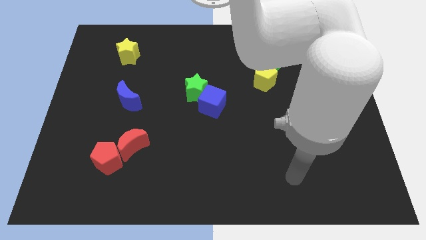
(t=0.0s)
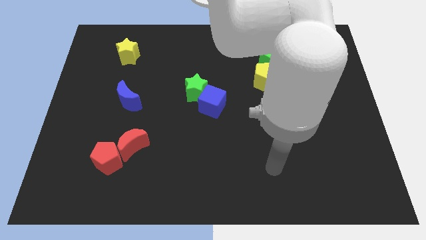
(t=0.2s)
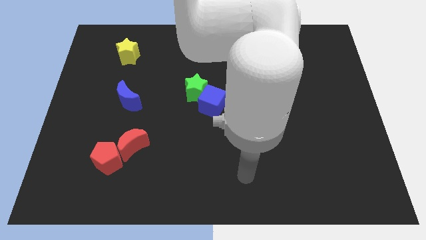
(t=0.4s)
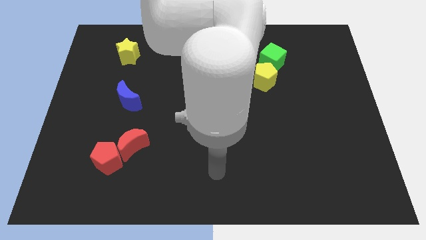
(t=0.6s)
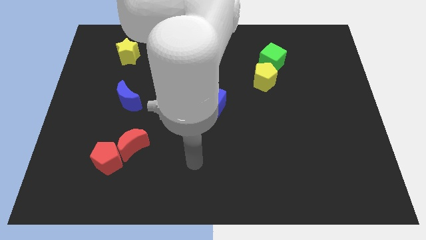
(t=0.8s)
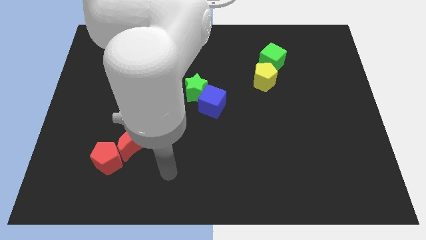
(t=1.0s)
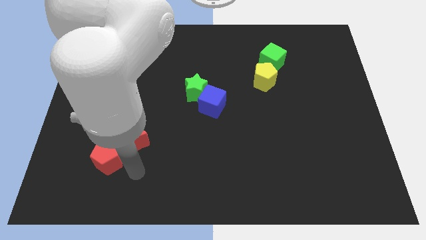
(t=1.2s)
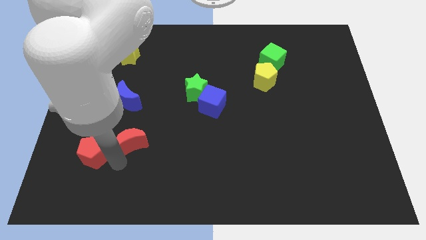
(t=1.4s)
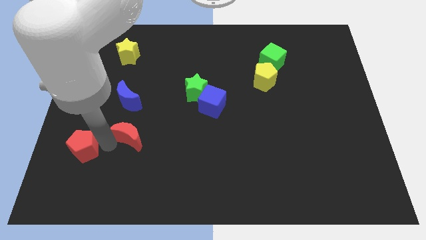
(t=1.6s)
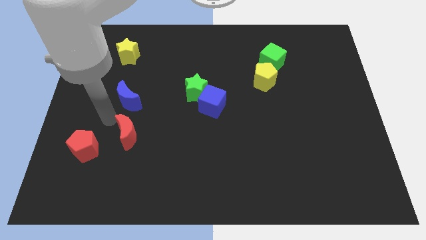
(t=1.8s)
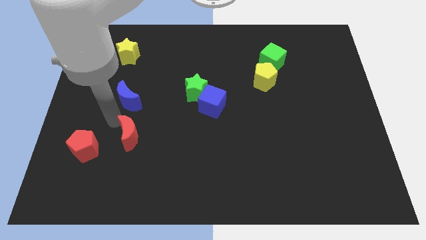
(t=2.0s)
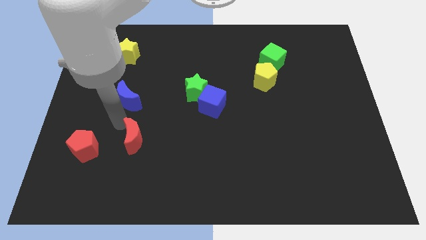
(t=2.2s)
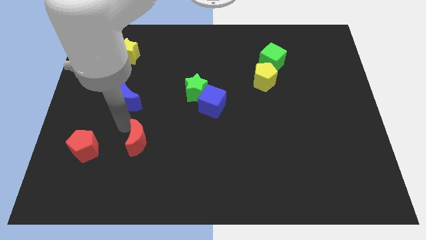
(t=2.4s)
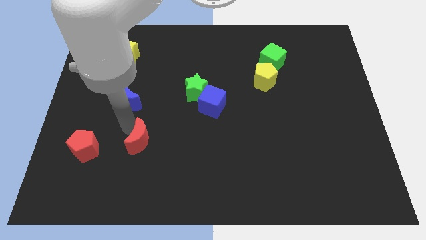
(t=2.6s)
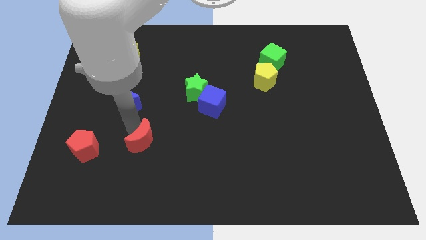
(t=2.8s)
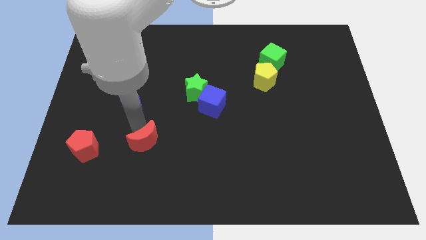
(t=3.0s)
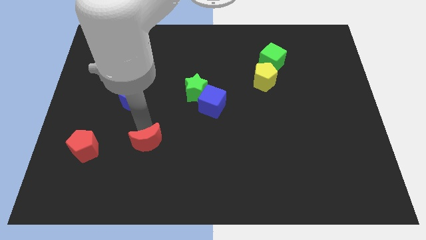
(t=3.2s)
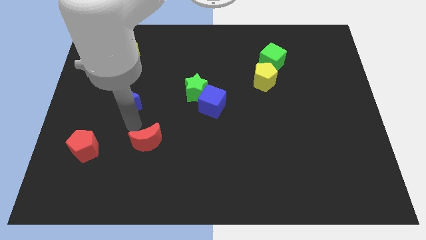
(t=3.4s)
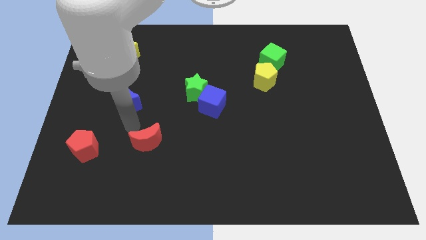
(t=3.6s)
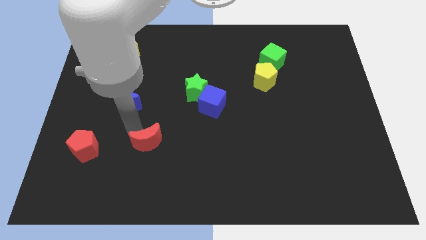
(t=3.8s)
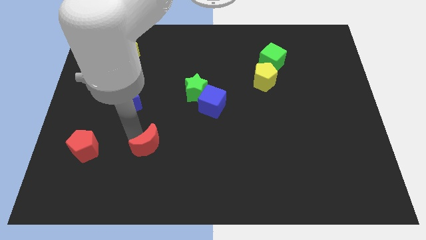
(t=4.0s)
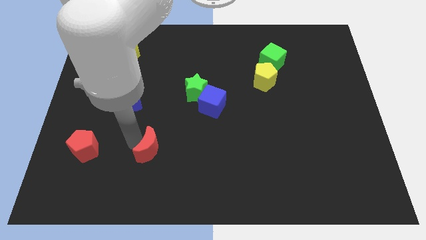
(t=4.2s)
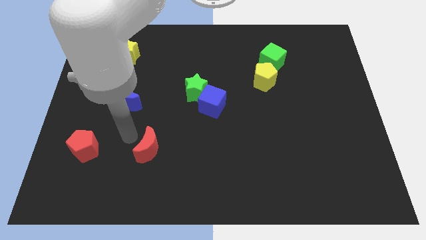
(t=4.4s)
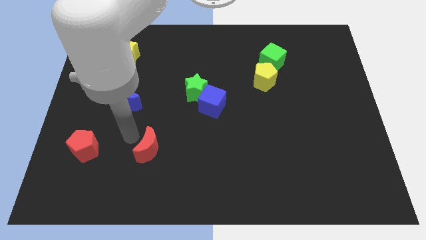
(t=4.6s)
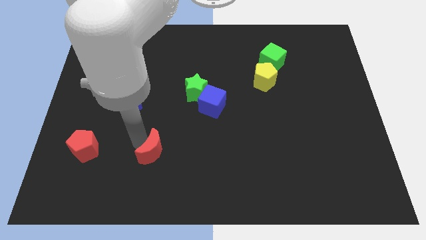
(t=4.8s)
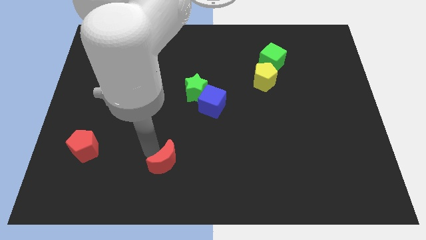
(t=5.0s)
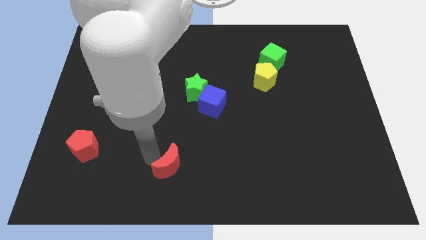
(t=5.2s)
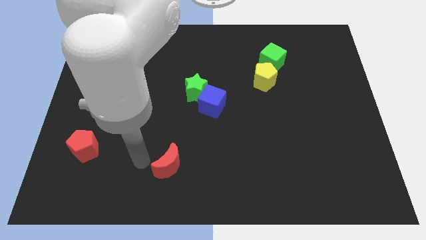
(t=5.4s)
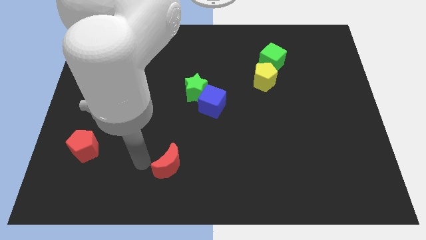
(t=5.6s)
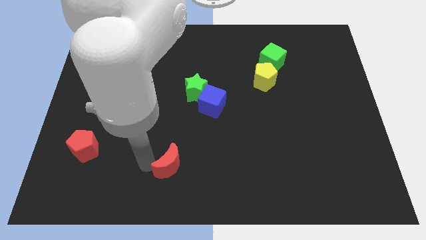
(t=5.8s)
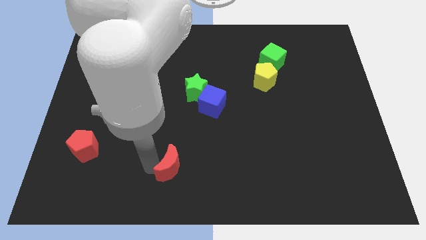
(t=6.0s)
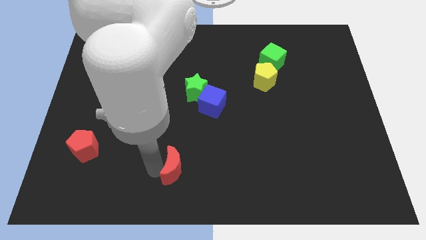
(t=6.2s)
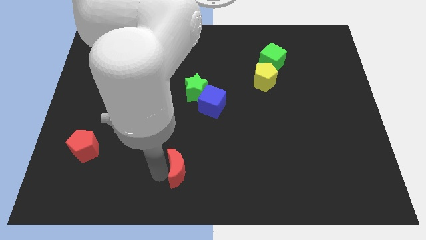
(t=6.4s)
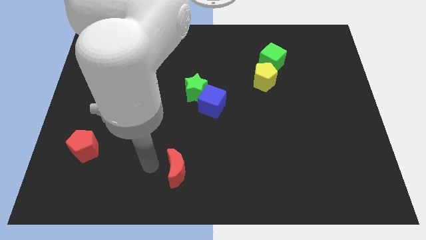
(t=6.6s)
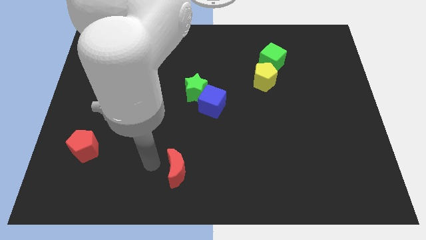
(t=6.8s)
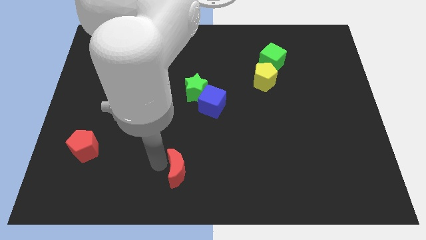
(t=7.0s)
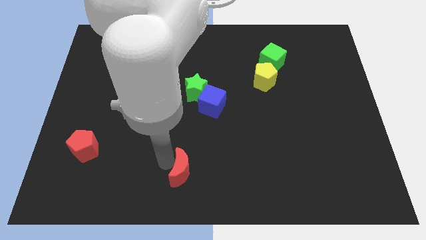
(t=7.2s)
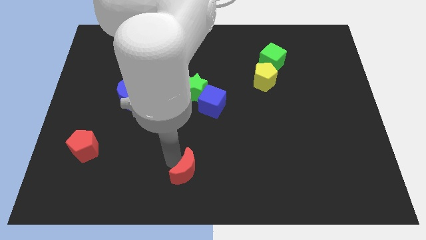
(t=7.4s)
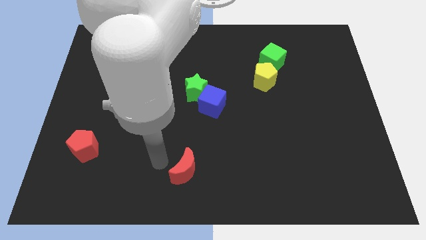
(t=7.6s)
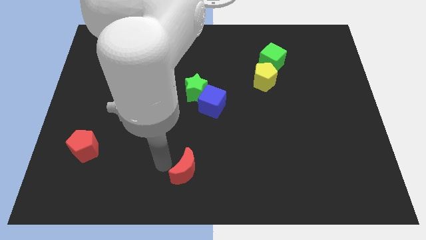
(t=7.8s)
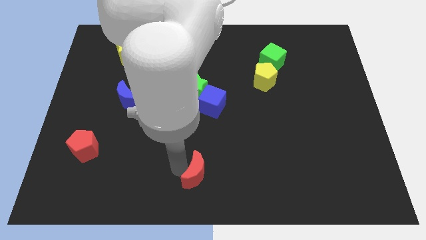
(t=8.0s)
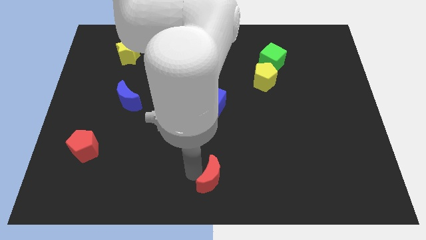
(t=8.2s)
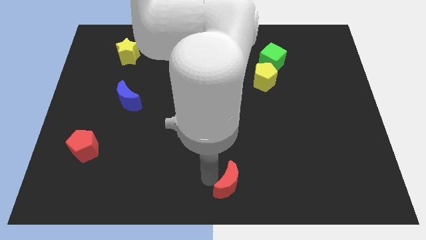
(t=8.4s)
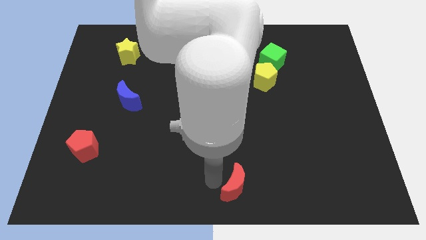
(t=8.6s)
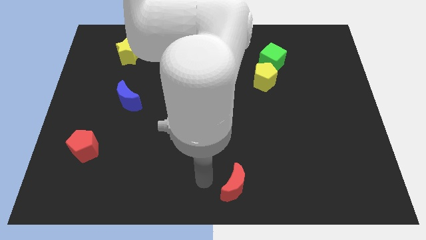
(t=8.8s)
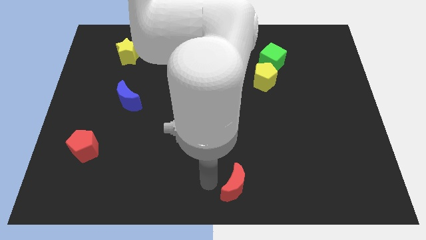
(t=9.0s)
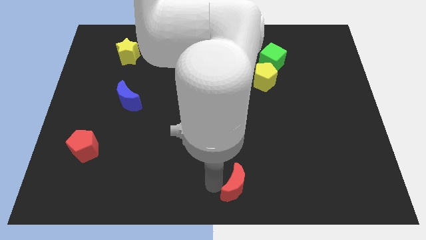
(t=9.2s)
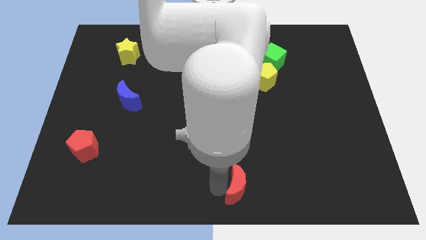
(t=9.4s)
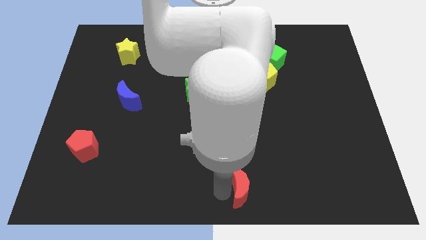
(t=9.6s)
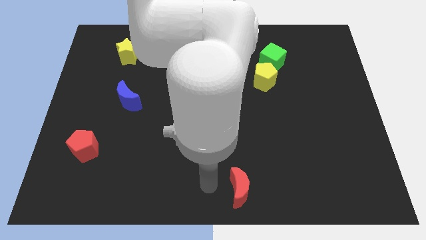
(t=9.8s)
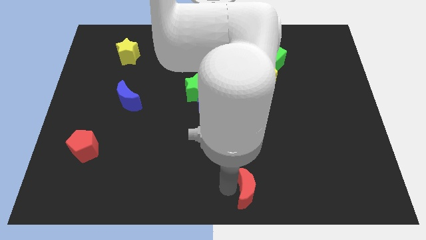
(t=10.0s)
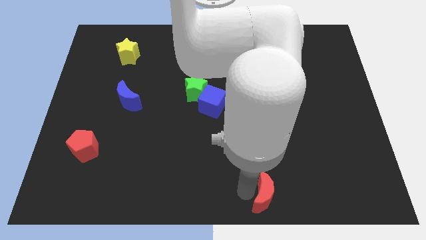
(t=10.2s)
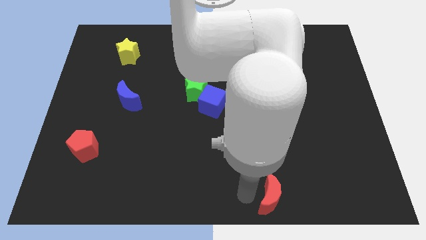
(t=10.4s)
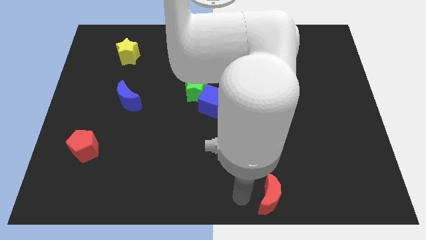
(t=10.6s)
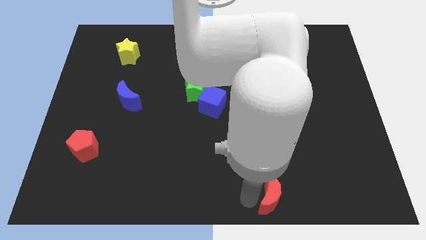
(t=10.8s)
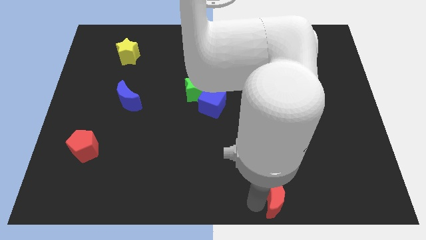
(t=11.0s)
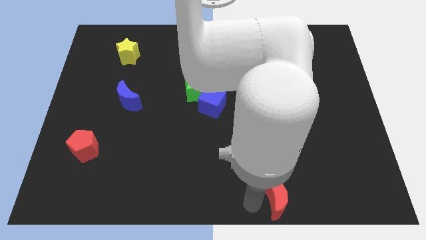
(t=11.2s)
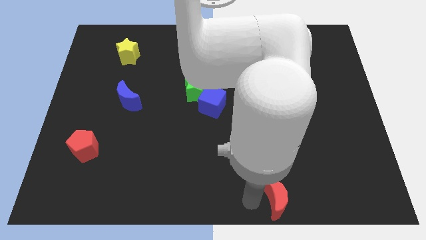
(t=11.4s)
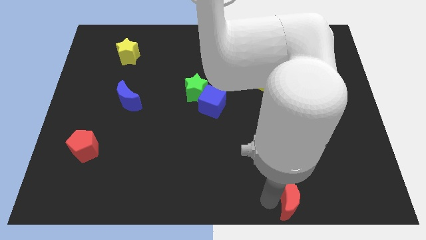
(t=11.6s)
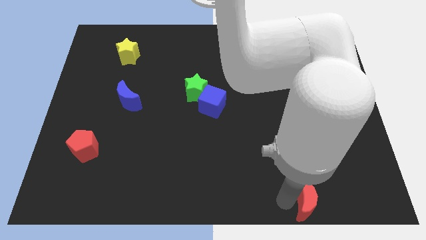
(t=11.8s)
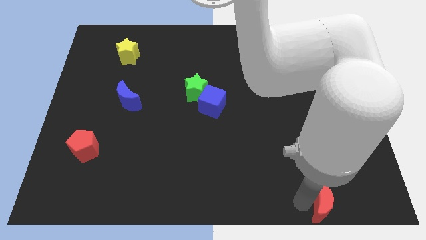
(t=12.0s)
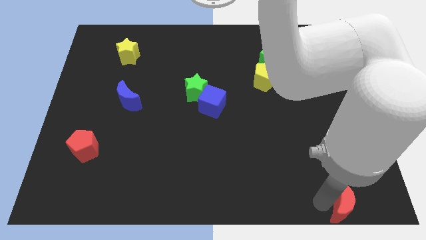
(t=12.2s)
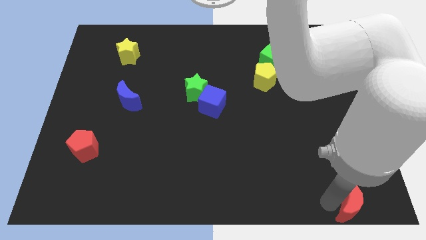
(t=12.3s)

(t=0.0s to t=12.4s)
put the red moon to the bottom right

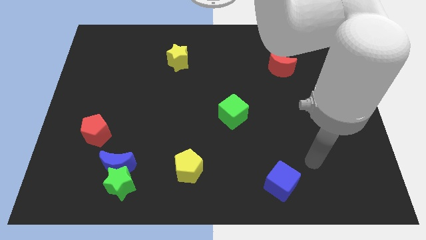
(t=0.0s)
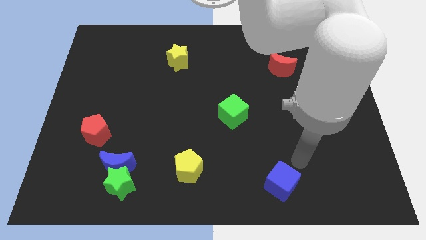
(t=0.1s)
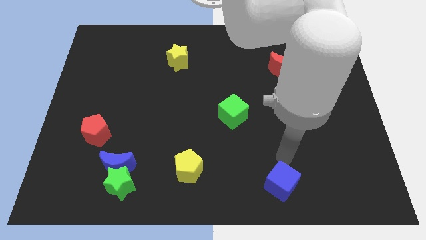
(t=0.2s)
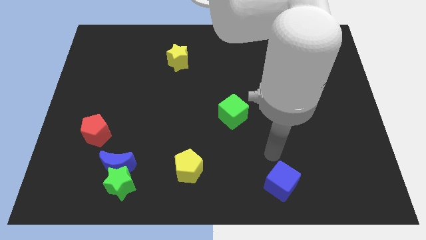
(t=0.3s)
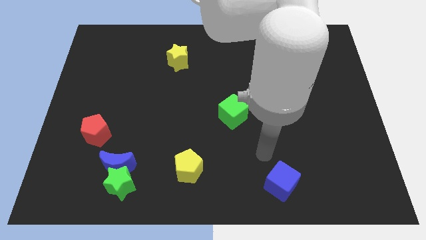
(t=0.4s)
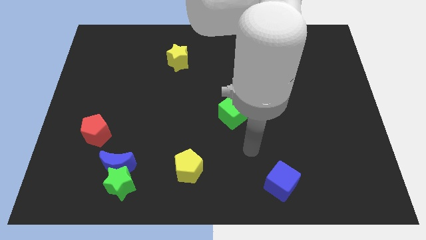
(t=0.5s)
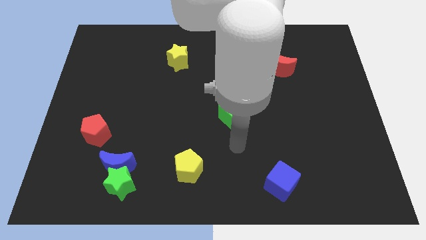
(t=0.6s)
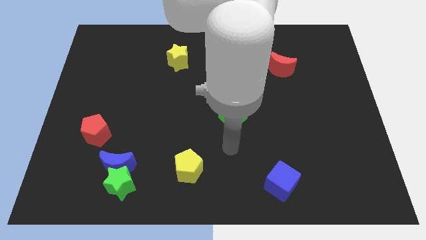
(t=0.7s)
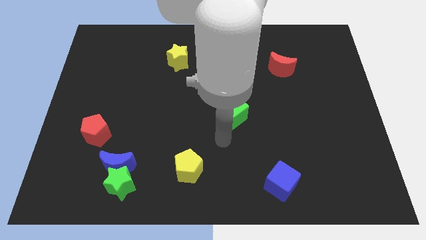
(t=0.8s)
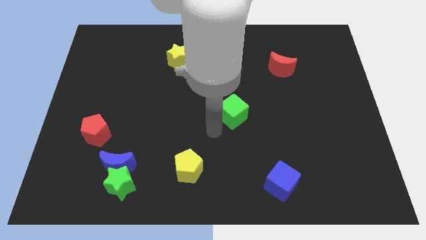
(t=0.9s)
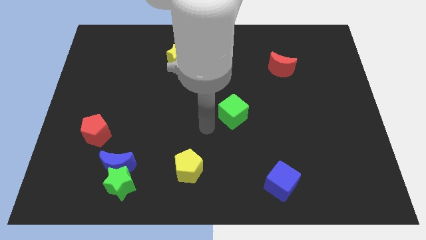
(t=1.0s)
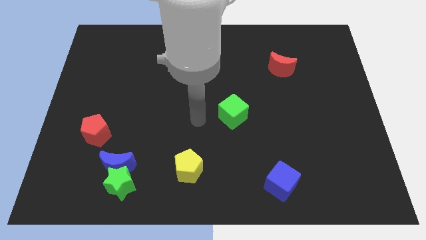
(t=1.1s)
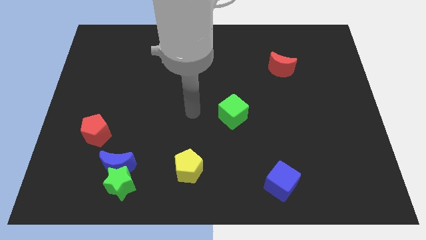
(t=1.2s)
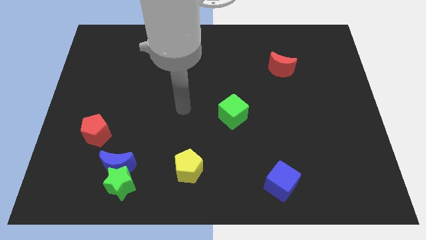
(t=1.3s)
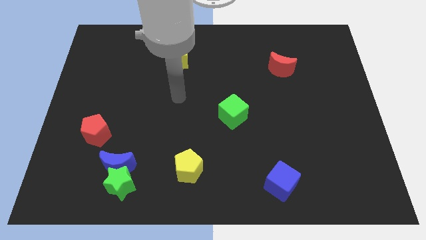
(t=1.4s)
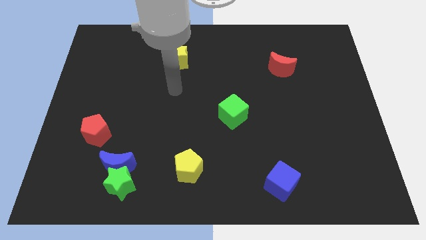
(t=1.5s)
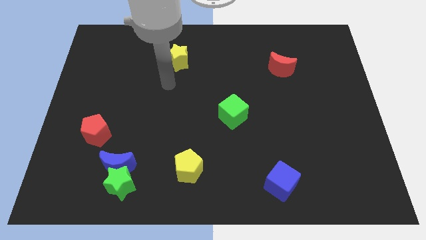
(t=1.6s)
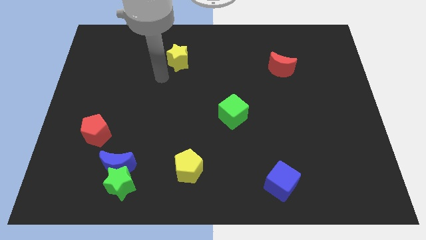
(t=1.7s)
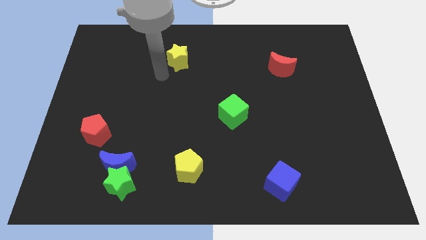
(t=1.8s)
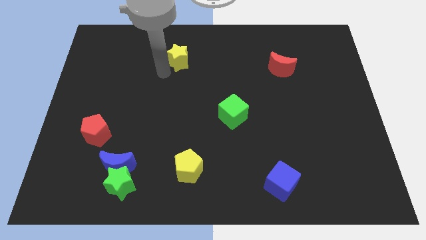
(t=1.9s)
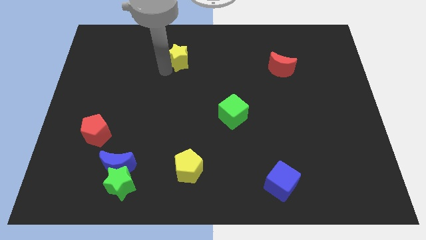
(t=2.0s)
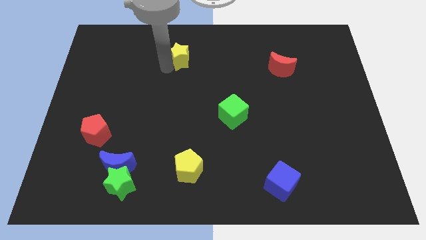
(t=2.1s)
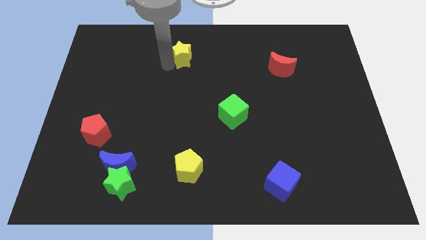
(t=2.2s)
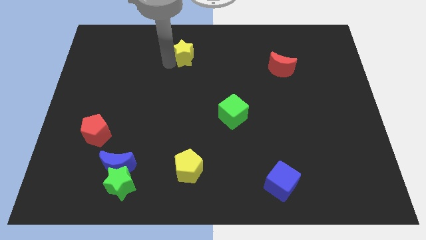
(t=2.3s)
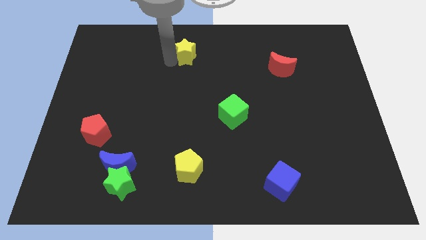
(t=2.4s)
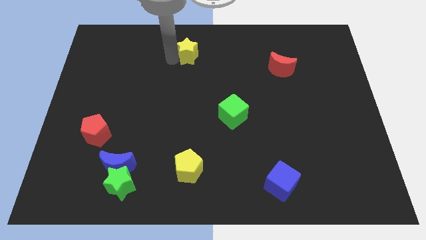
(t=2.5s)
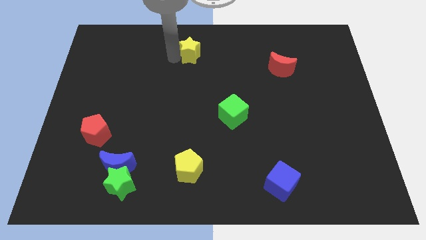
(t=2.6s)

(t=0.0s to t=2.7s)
put the yellow star to the towards your base
